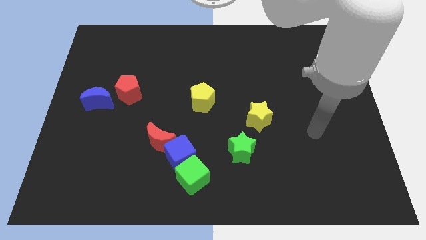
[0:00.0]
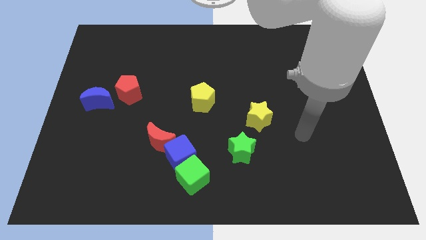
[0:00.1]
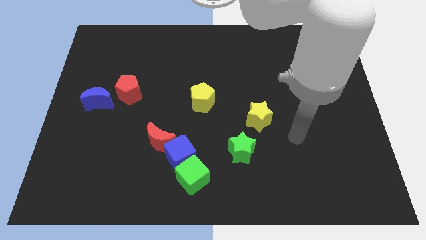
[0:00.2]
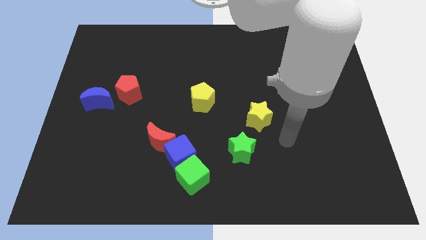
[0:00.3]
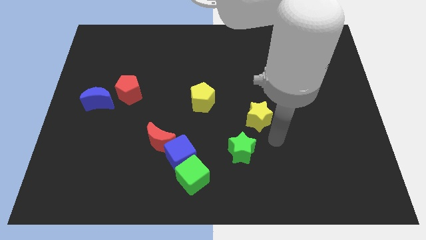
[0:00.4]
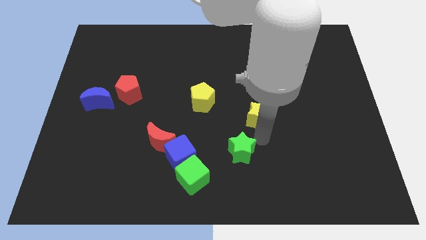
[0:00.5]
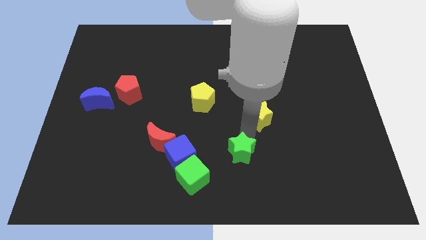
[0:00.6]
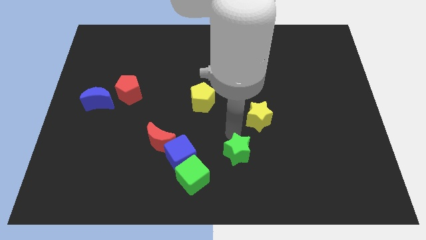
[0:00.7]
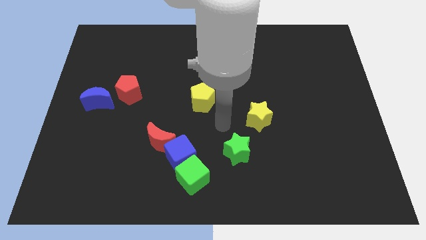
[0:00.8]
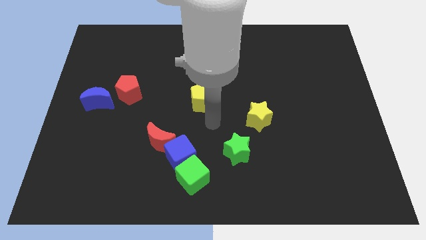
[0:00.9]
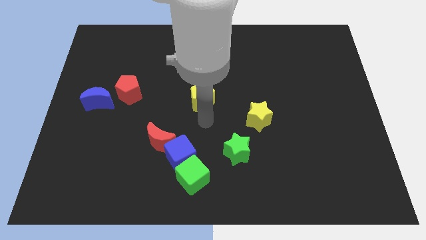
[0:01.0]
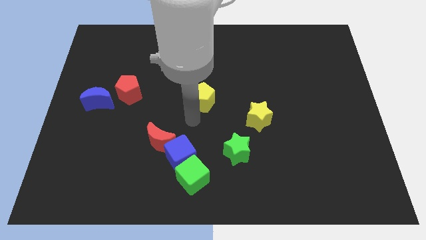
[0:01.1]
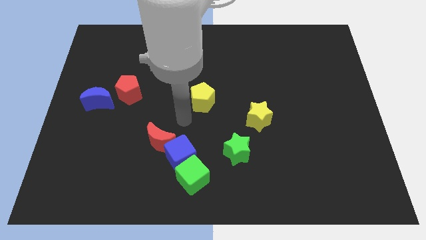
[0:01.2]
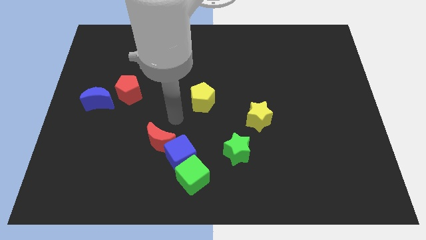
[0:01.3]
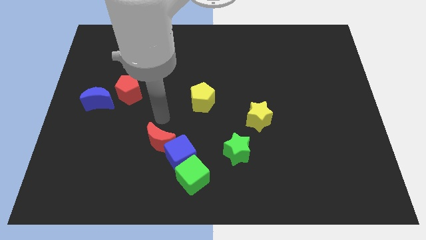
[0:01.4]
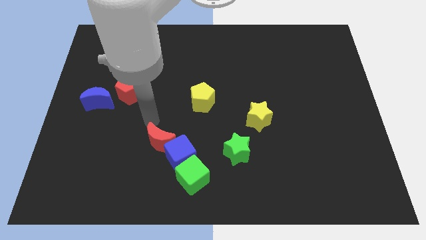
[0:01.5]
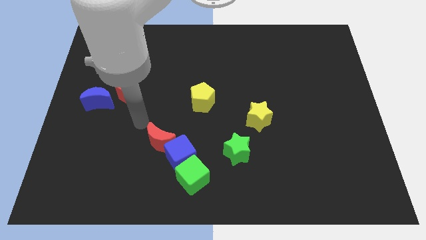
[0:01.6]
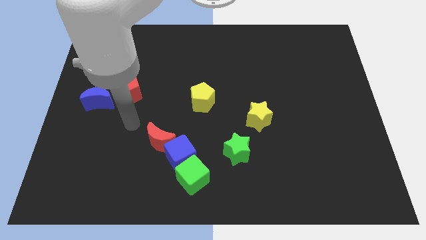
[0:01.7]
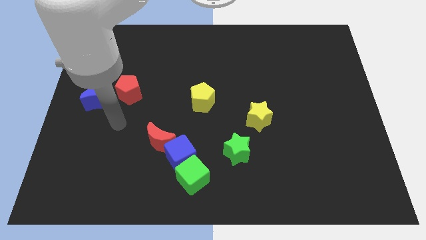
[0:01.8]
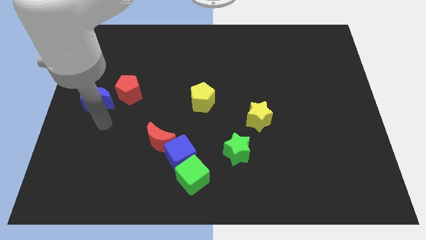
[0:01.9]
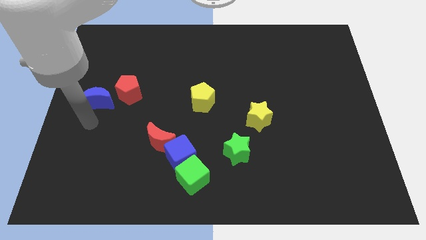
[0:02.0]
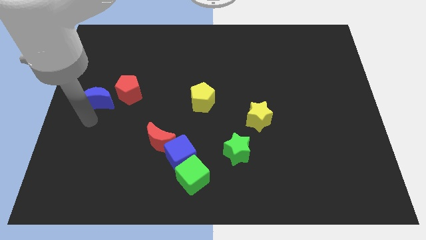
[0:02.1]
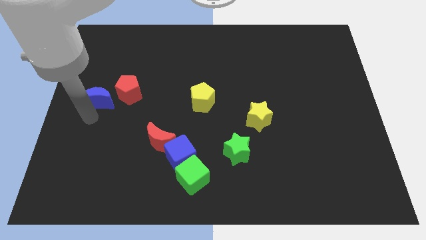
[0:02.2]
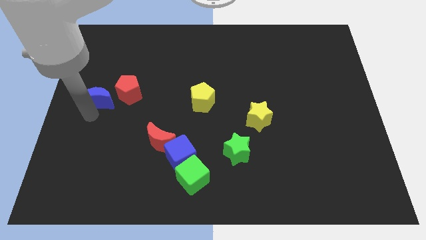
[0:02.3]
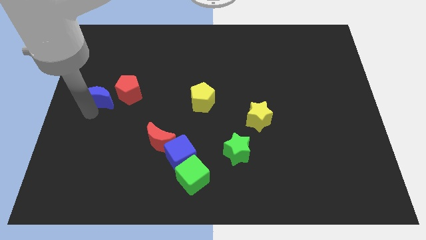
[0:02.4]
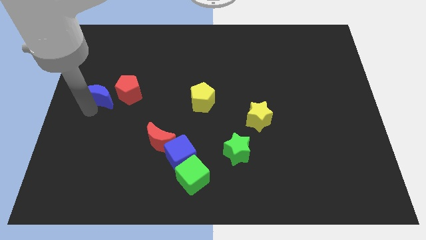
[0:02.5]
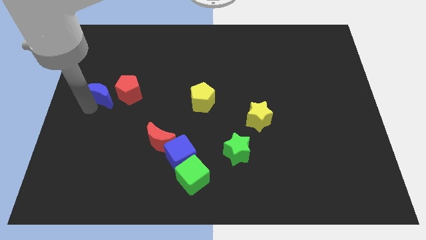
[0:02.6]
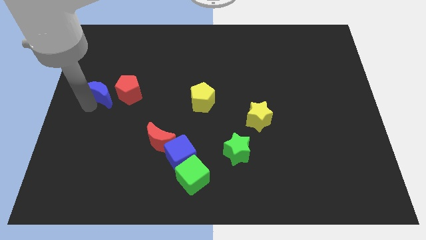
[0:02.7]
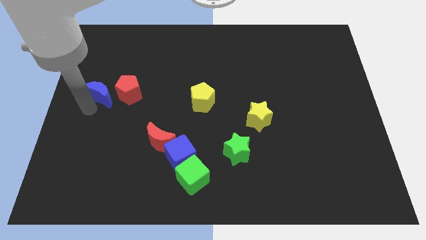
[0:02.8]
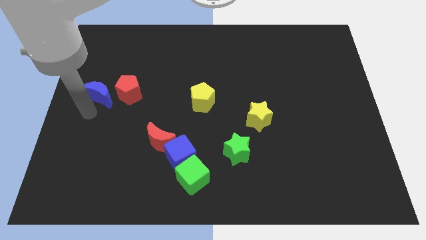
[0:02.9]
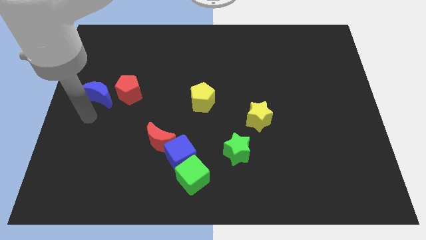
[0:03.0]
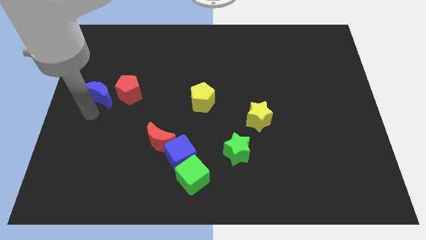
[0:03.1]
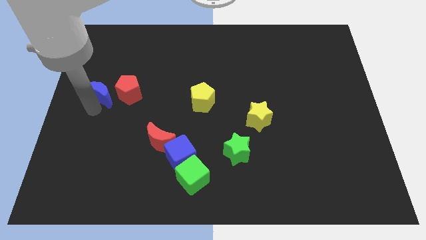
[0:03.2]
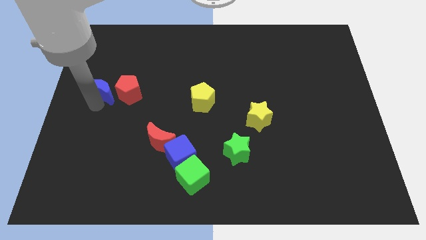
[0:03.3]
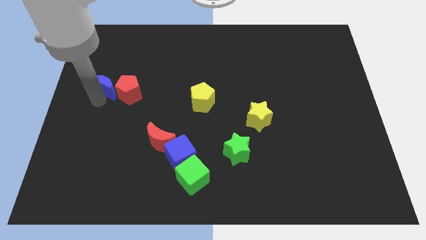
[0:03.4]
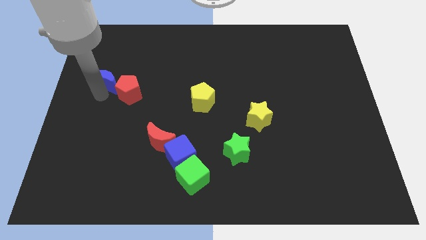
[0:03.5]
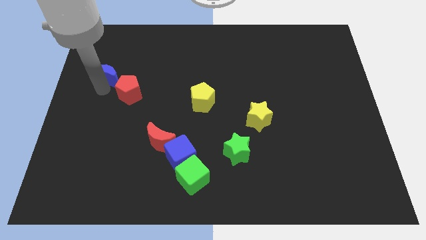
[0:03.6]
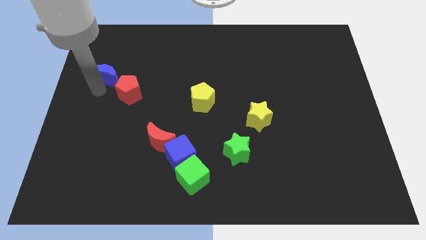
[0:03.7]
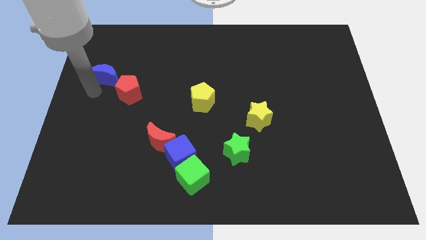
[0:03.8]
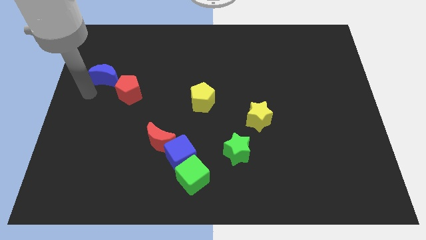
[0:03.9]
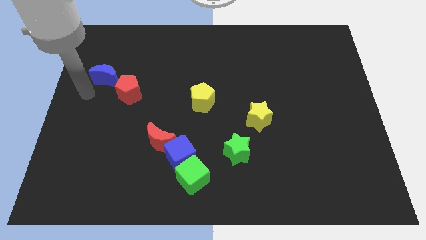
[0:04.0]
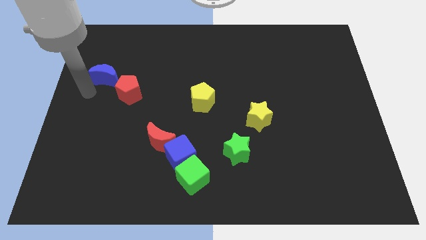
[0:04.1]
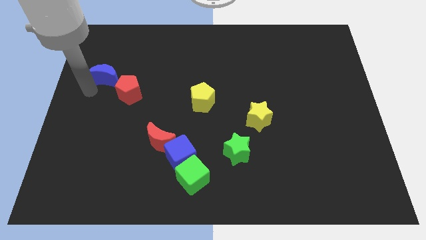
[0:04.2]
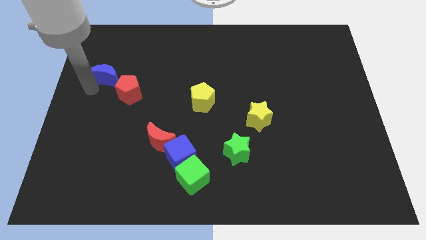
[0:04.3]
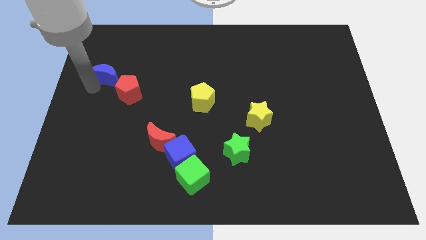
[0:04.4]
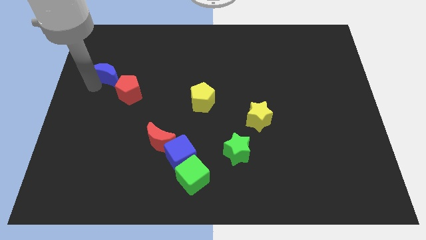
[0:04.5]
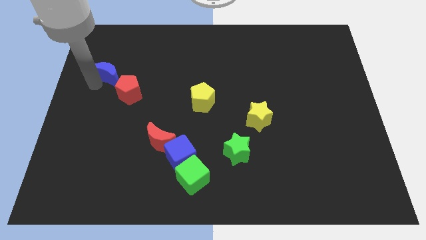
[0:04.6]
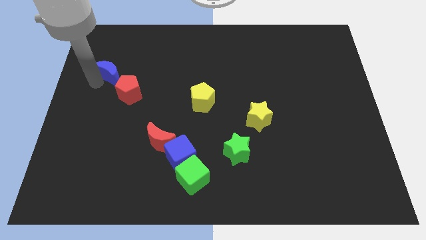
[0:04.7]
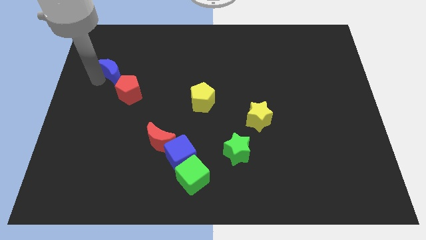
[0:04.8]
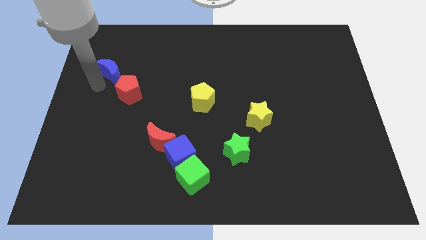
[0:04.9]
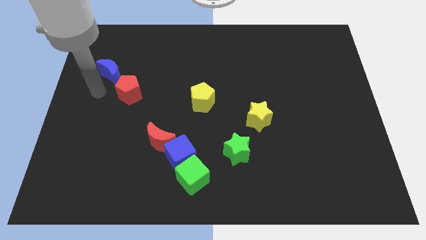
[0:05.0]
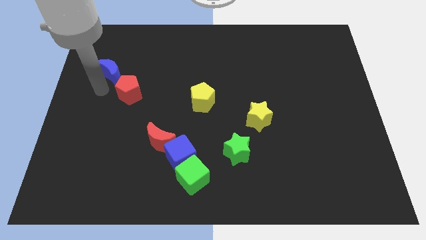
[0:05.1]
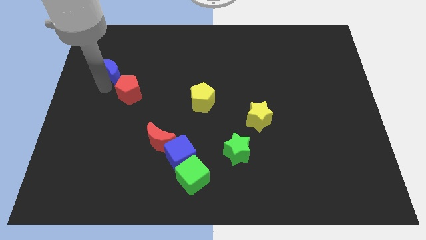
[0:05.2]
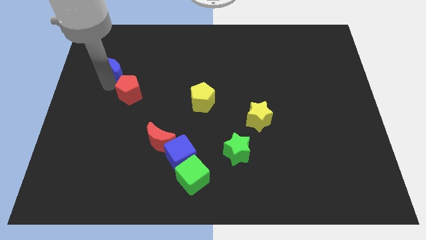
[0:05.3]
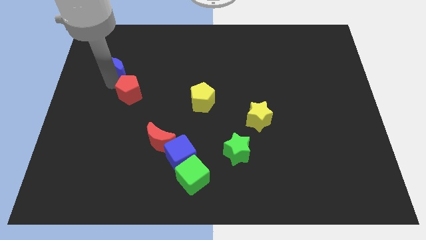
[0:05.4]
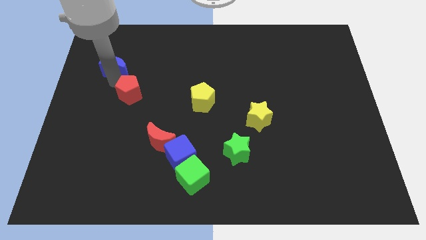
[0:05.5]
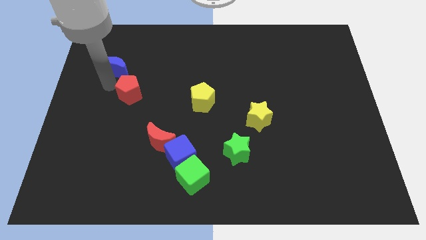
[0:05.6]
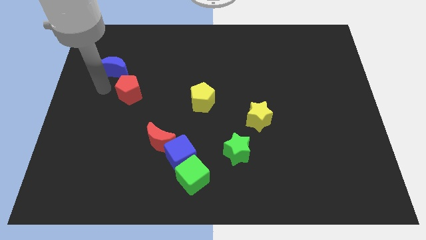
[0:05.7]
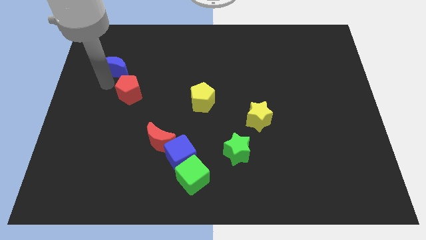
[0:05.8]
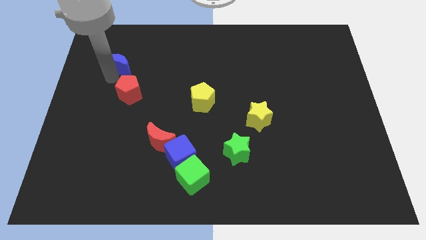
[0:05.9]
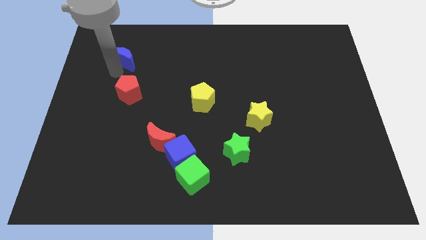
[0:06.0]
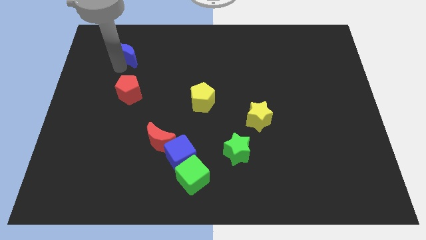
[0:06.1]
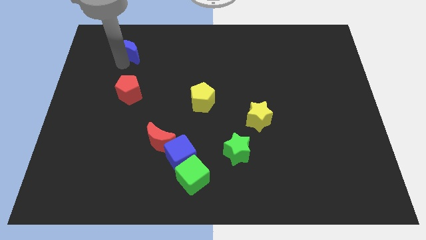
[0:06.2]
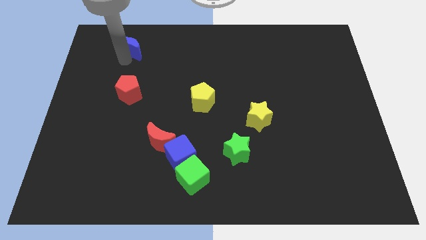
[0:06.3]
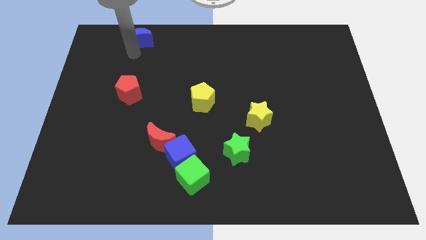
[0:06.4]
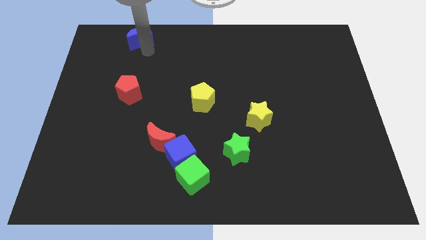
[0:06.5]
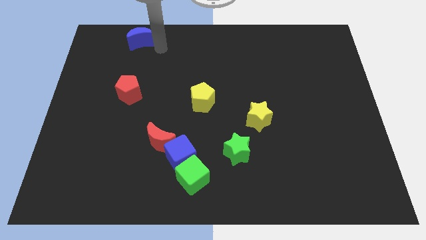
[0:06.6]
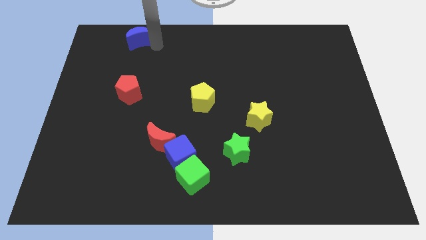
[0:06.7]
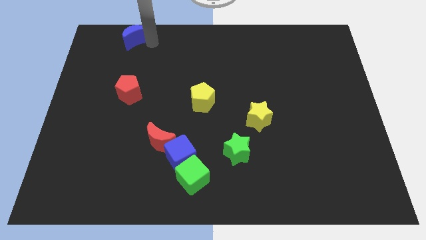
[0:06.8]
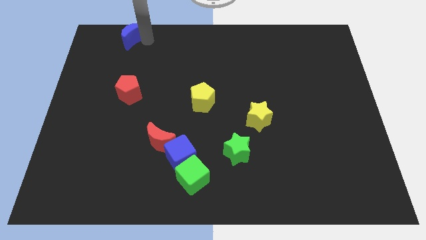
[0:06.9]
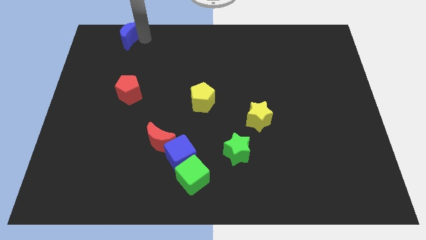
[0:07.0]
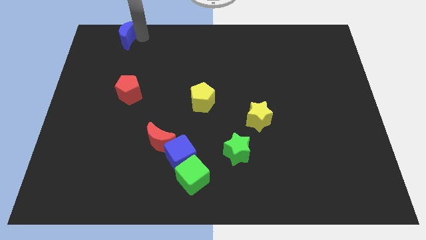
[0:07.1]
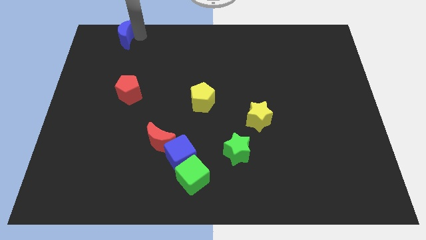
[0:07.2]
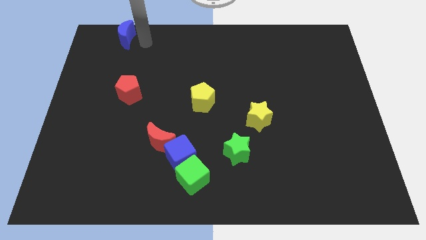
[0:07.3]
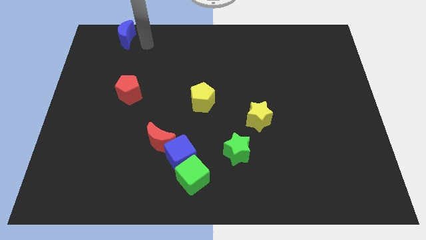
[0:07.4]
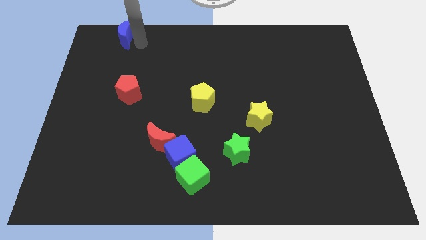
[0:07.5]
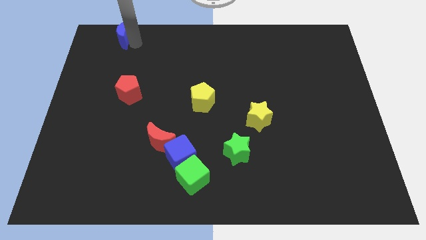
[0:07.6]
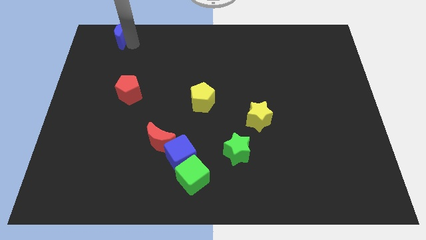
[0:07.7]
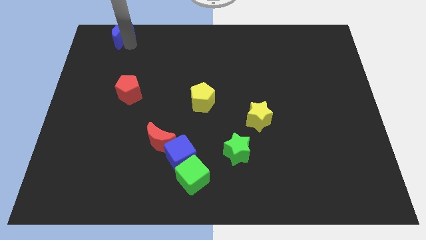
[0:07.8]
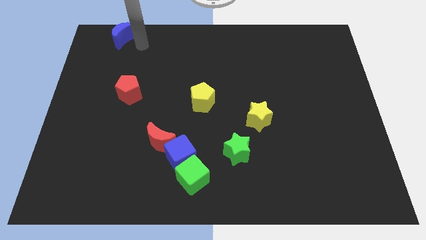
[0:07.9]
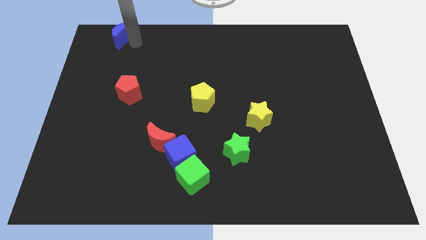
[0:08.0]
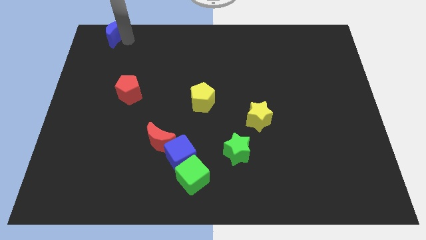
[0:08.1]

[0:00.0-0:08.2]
slide the blue moon to the top left
